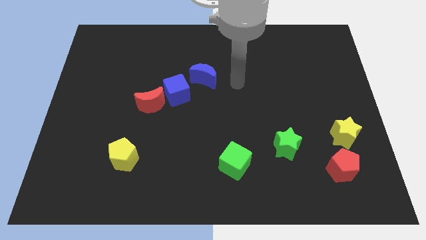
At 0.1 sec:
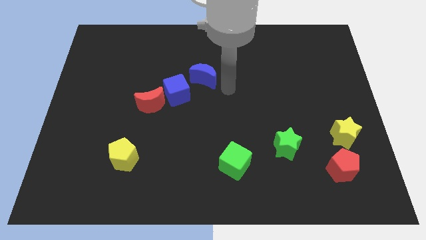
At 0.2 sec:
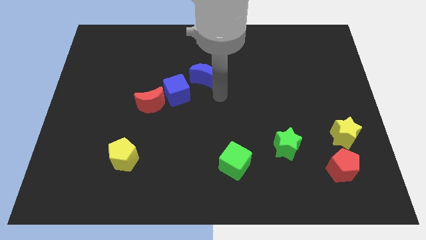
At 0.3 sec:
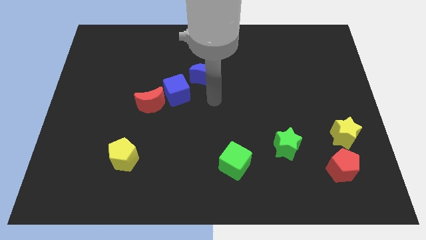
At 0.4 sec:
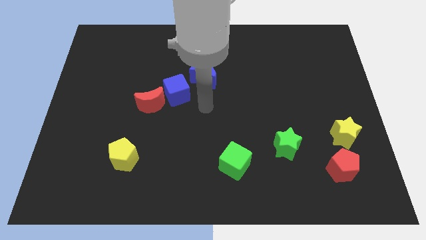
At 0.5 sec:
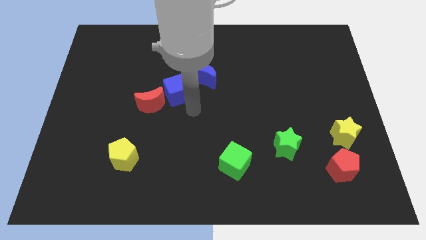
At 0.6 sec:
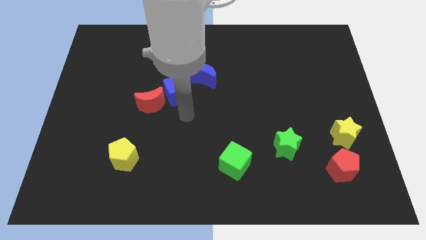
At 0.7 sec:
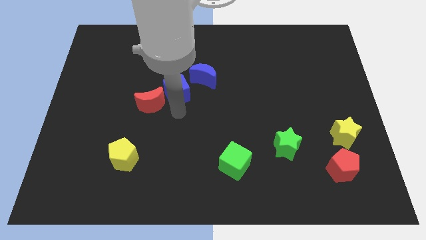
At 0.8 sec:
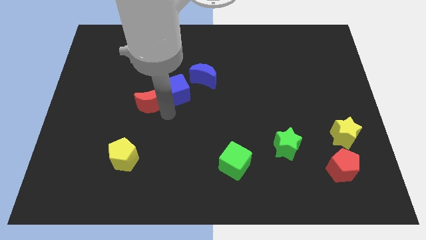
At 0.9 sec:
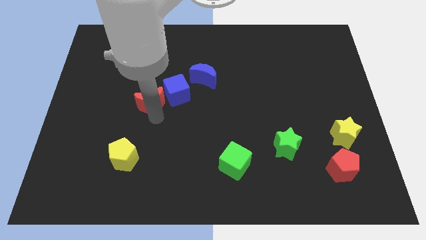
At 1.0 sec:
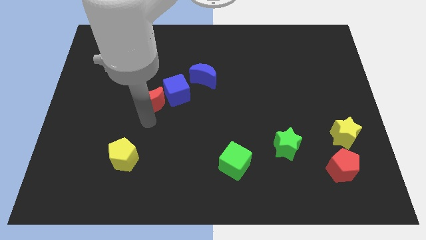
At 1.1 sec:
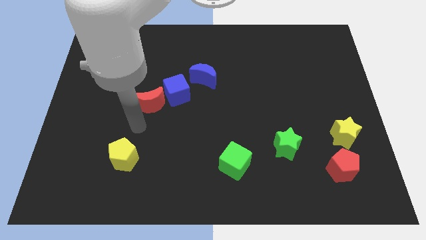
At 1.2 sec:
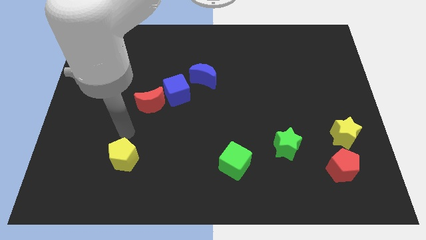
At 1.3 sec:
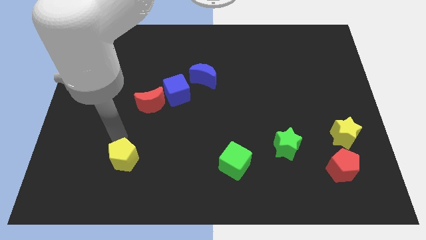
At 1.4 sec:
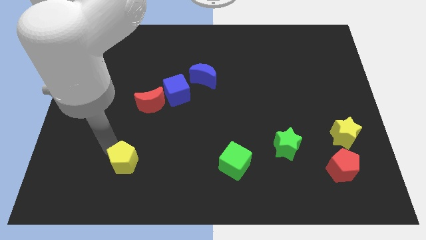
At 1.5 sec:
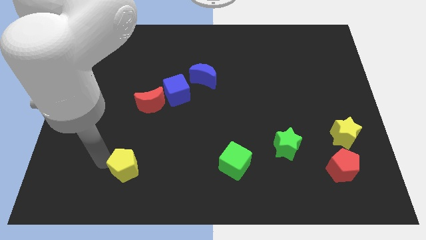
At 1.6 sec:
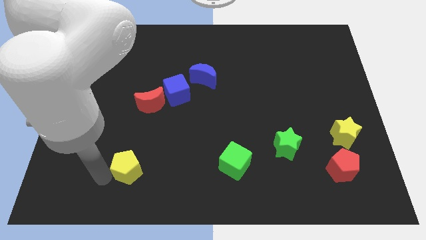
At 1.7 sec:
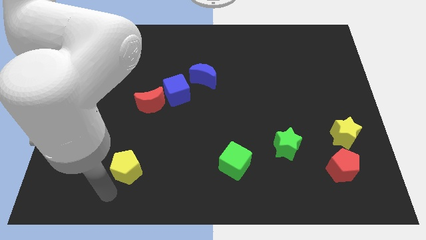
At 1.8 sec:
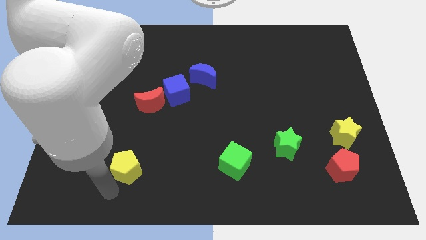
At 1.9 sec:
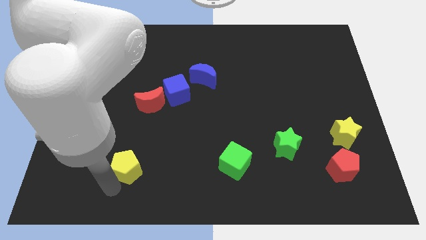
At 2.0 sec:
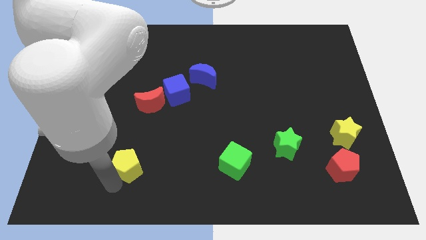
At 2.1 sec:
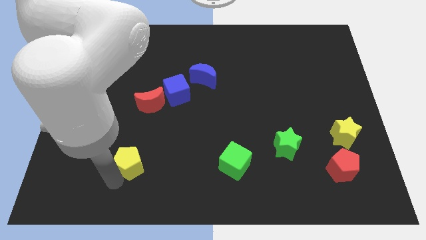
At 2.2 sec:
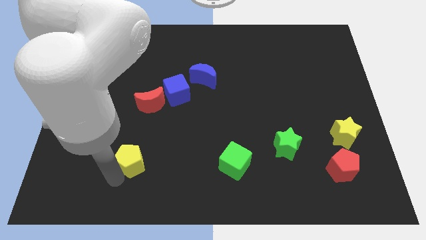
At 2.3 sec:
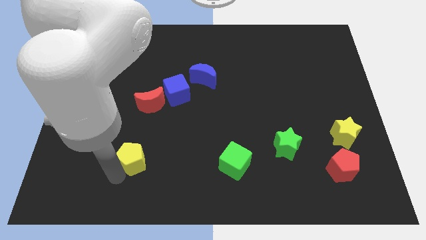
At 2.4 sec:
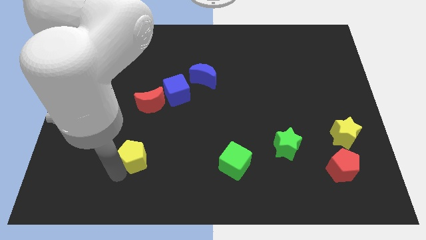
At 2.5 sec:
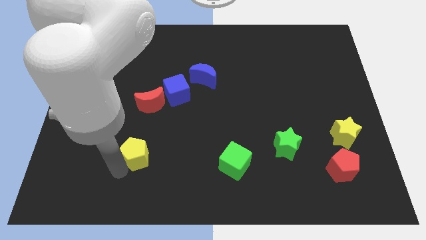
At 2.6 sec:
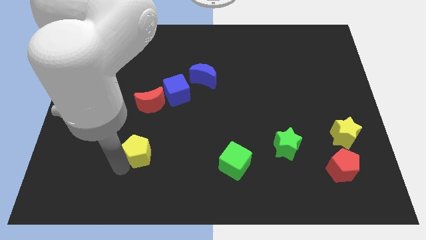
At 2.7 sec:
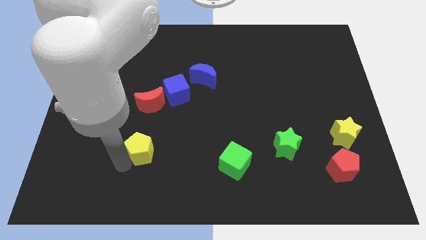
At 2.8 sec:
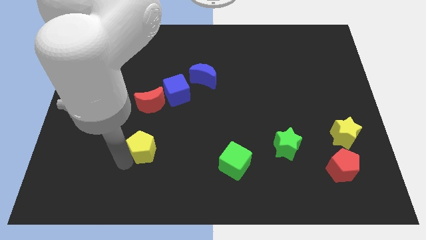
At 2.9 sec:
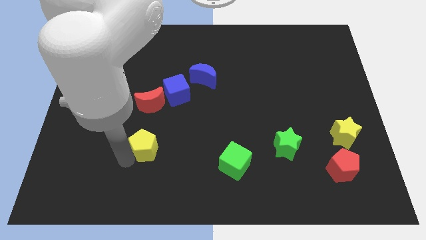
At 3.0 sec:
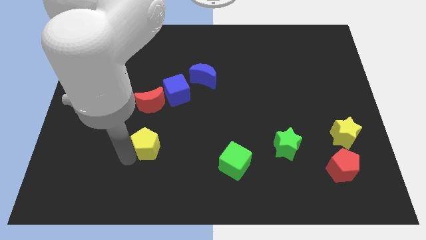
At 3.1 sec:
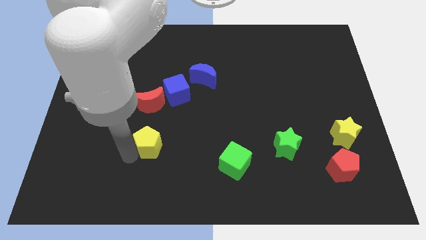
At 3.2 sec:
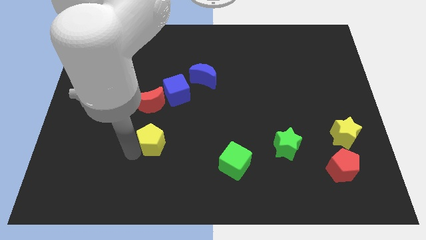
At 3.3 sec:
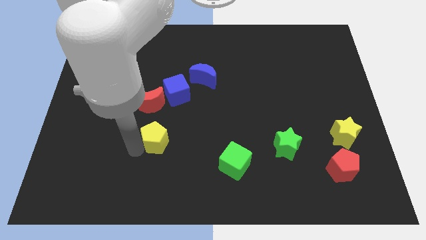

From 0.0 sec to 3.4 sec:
slide the yellow pentagon up and then right a bit

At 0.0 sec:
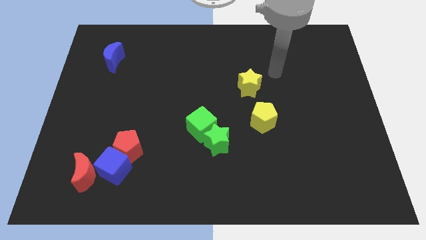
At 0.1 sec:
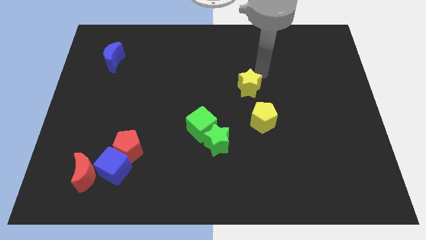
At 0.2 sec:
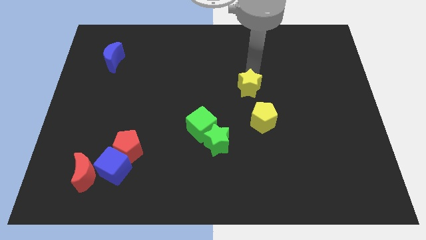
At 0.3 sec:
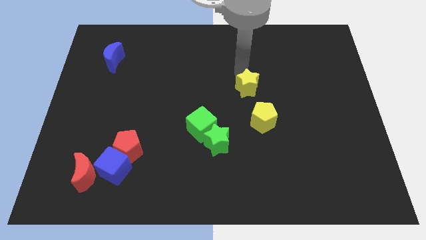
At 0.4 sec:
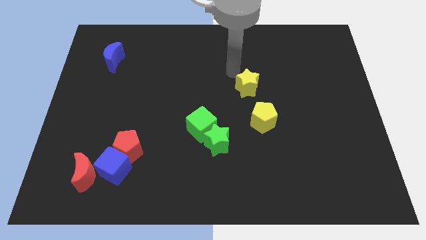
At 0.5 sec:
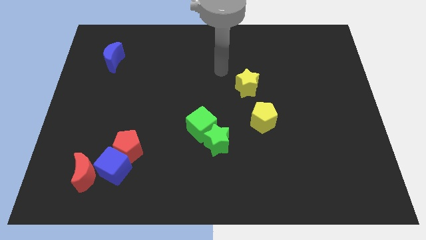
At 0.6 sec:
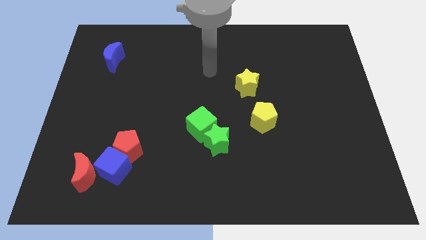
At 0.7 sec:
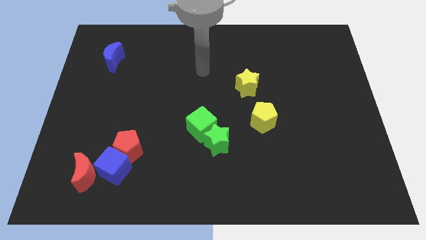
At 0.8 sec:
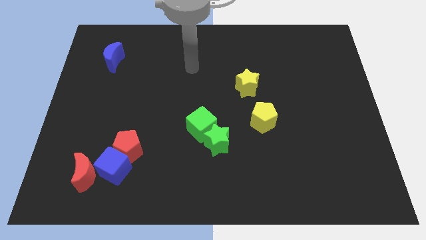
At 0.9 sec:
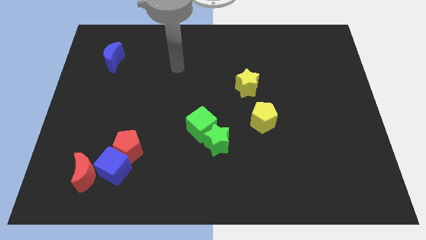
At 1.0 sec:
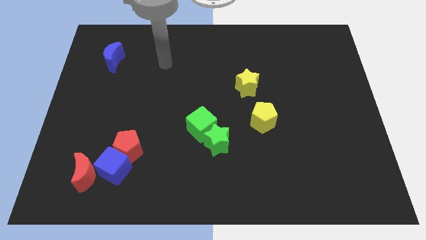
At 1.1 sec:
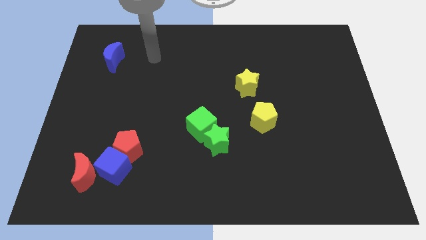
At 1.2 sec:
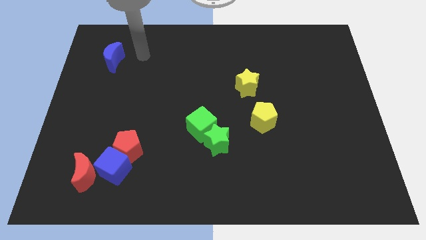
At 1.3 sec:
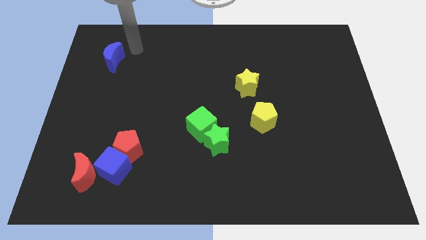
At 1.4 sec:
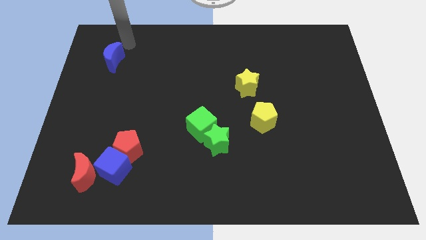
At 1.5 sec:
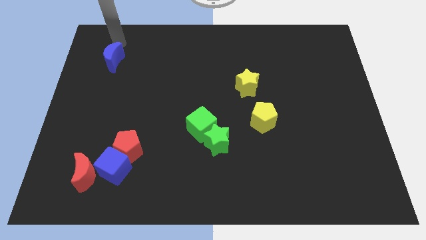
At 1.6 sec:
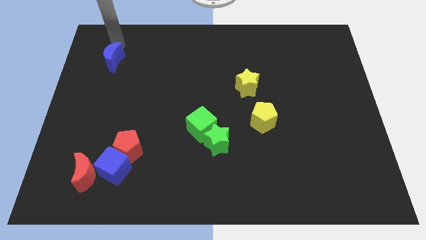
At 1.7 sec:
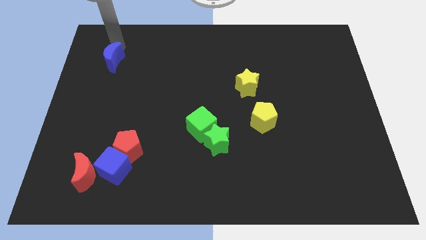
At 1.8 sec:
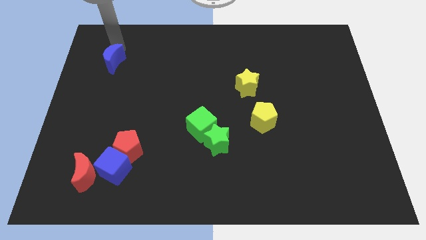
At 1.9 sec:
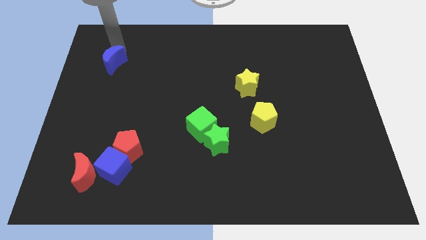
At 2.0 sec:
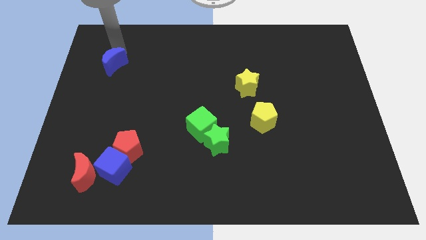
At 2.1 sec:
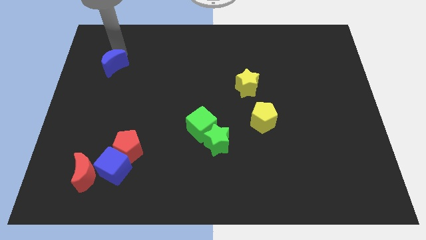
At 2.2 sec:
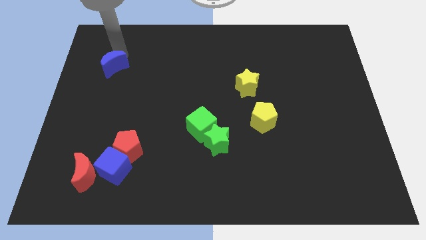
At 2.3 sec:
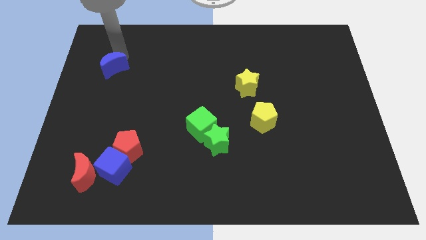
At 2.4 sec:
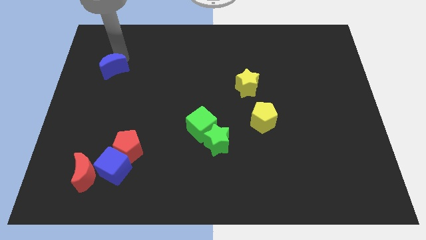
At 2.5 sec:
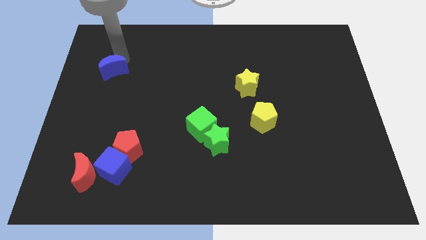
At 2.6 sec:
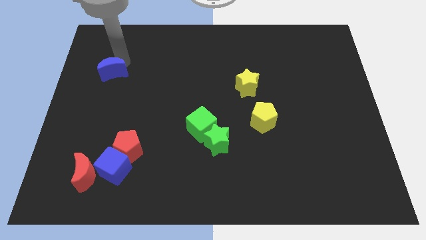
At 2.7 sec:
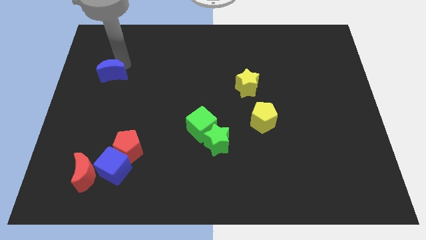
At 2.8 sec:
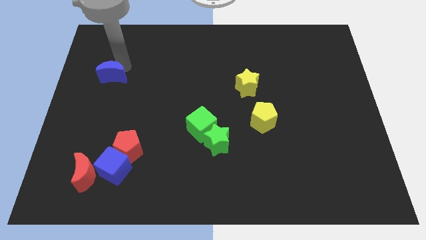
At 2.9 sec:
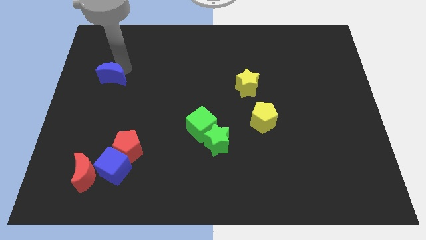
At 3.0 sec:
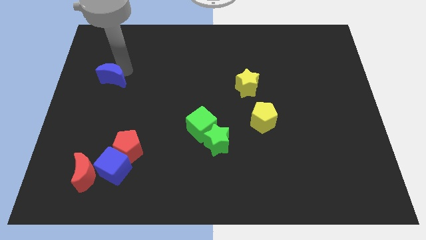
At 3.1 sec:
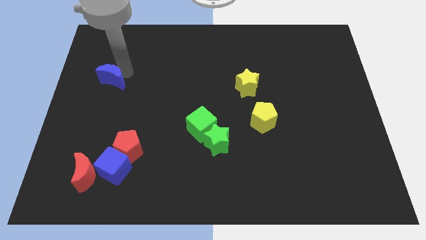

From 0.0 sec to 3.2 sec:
slide the blue moon downwards a little

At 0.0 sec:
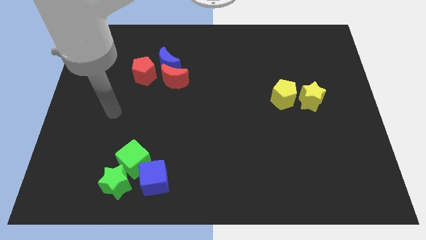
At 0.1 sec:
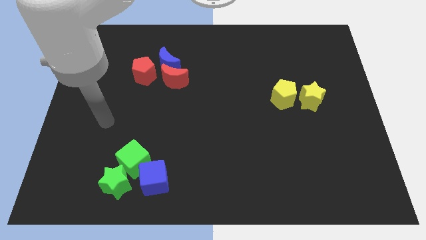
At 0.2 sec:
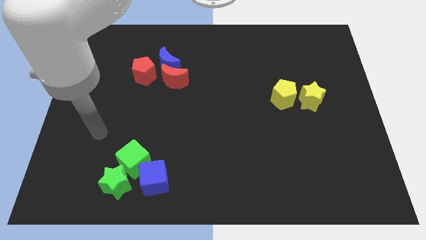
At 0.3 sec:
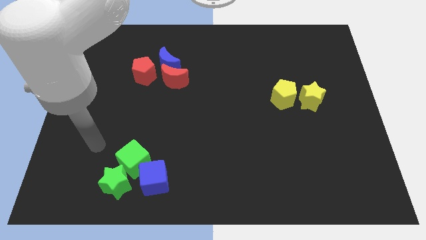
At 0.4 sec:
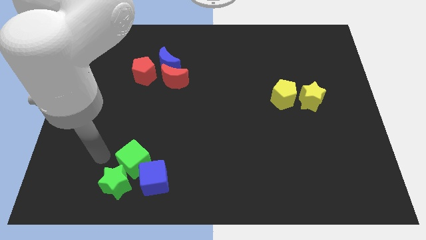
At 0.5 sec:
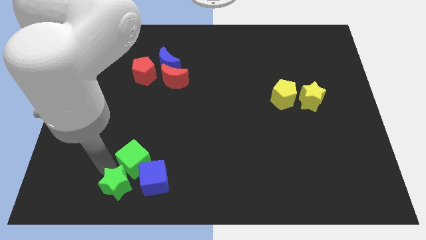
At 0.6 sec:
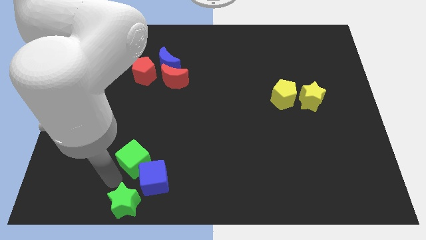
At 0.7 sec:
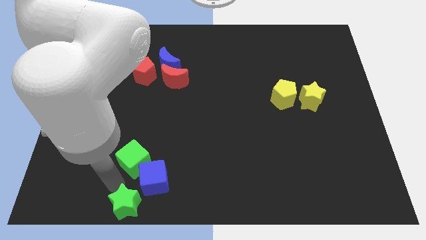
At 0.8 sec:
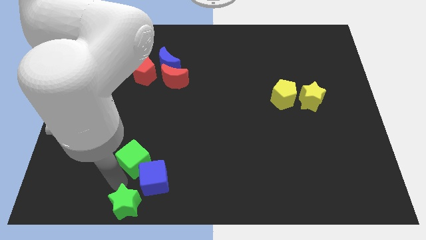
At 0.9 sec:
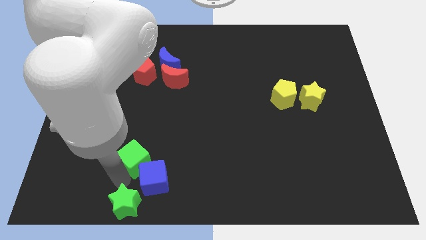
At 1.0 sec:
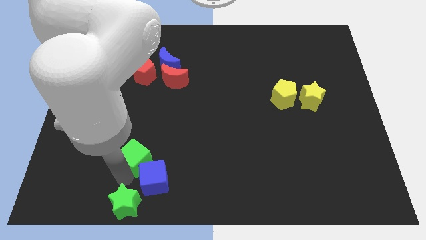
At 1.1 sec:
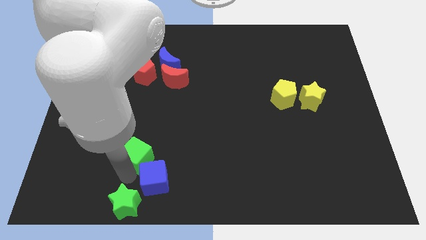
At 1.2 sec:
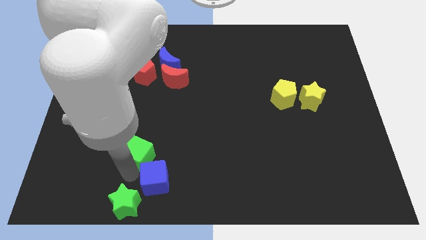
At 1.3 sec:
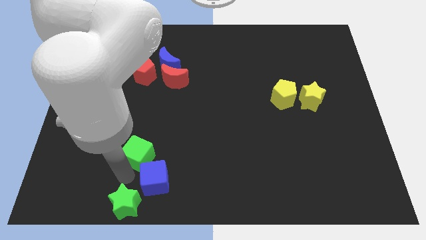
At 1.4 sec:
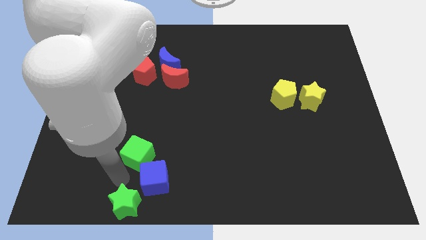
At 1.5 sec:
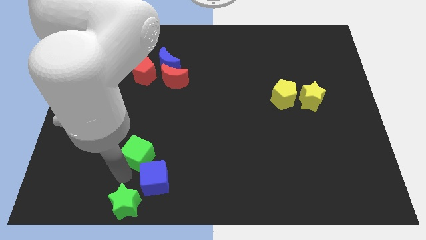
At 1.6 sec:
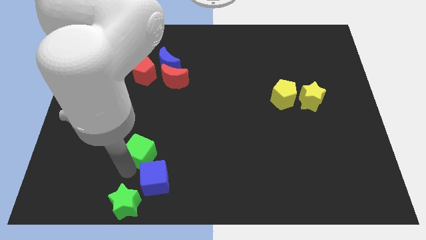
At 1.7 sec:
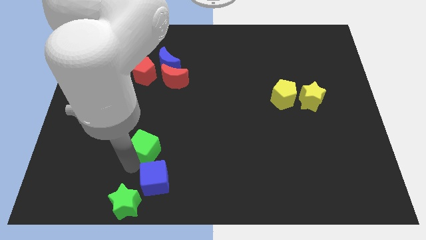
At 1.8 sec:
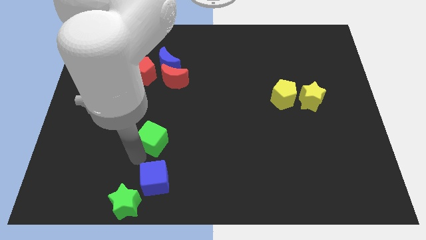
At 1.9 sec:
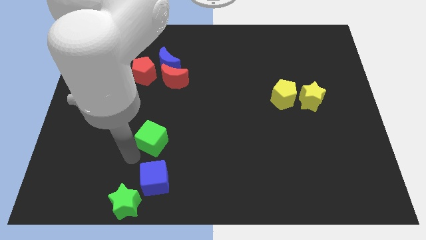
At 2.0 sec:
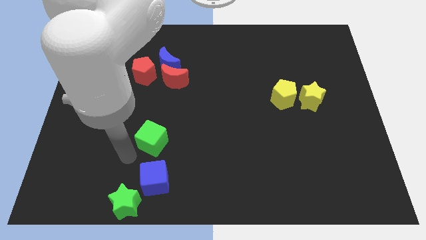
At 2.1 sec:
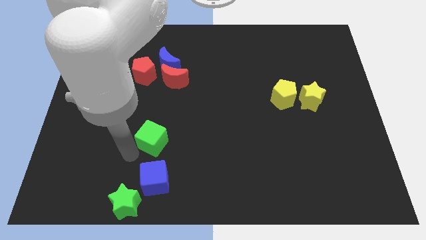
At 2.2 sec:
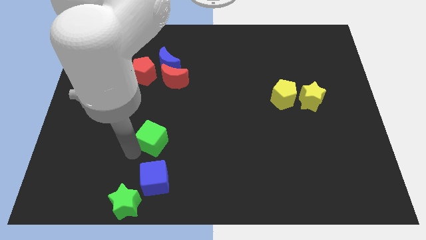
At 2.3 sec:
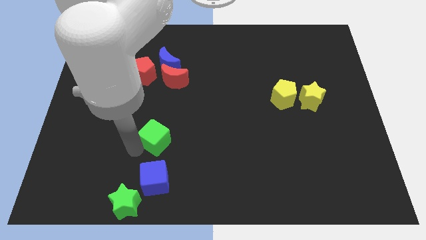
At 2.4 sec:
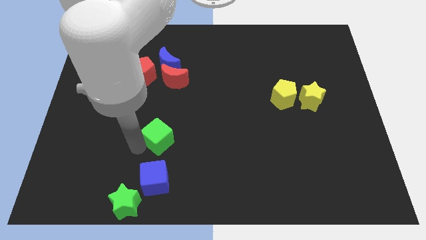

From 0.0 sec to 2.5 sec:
slightly slide the green cube diagonally up and right
